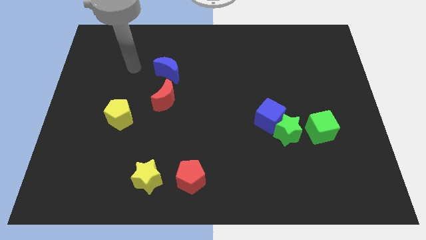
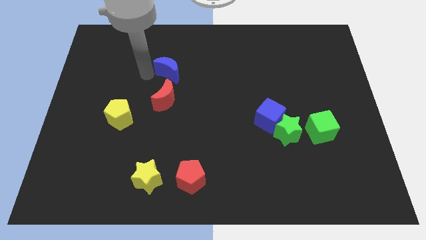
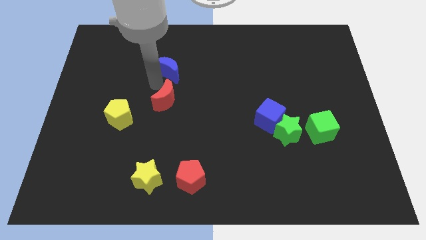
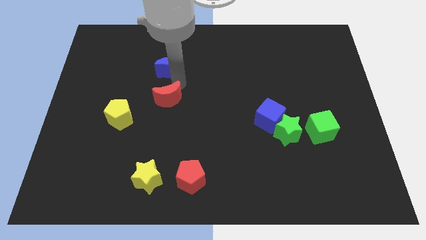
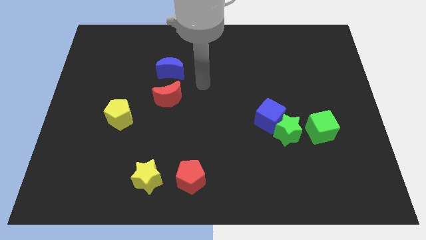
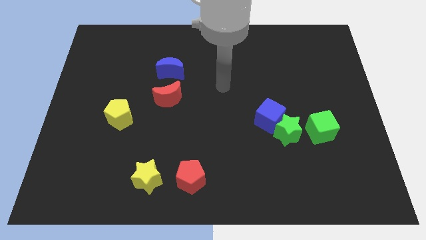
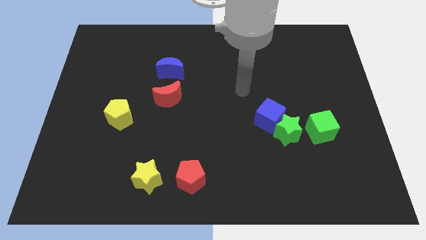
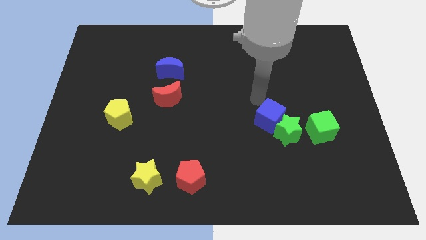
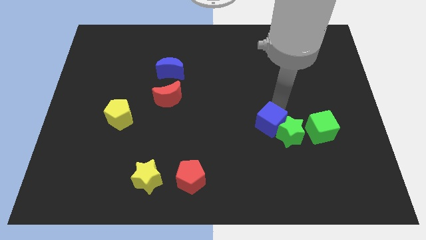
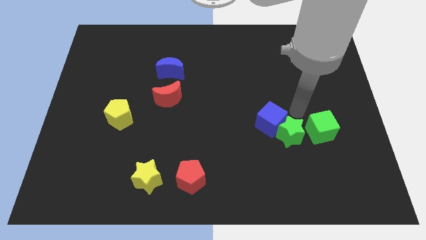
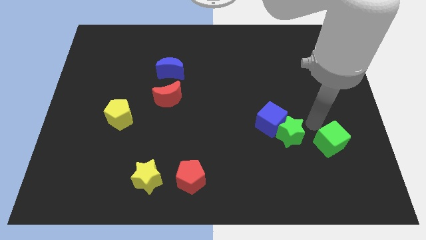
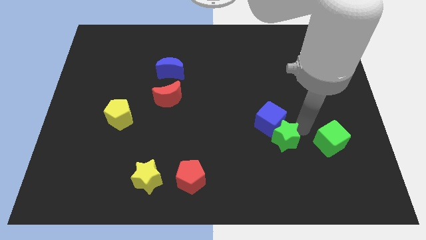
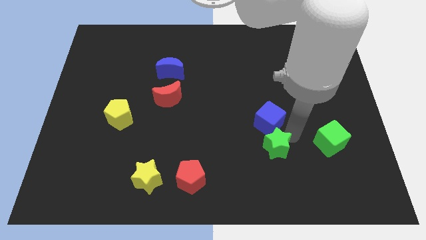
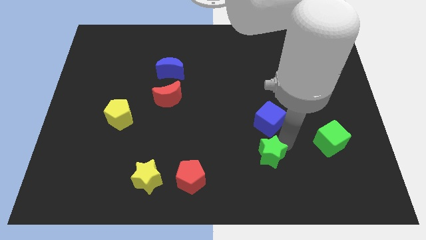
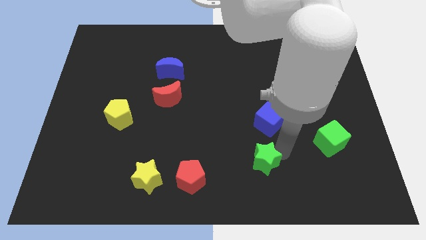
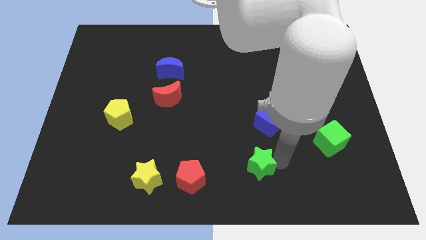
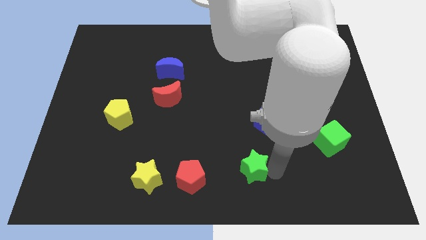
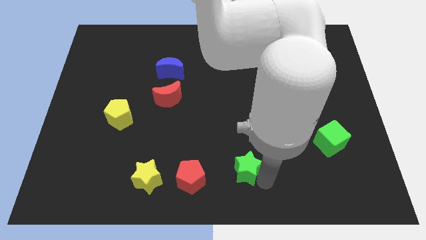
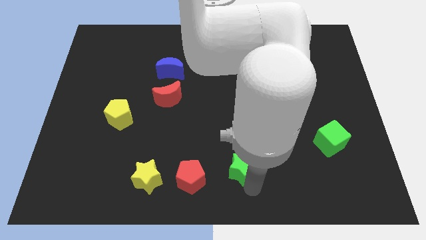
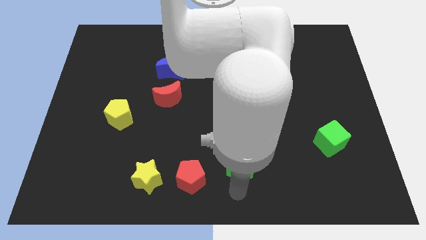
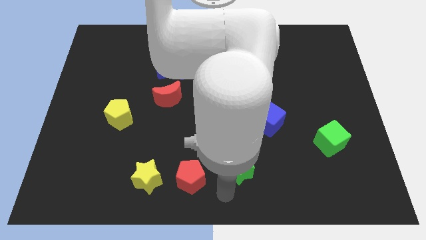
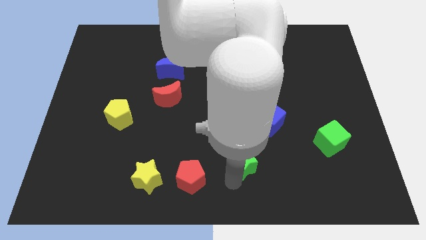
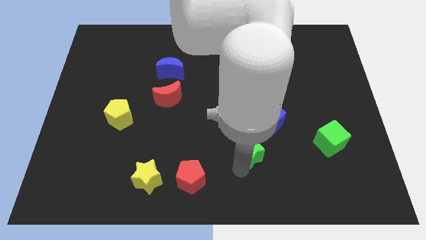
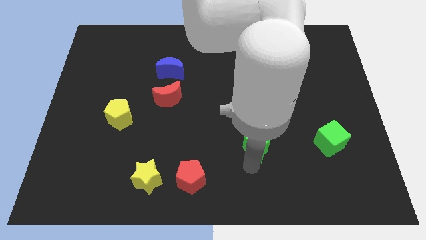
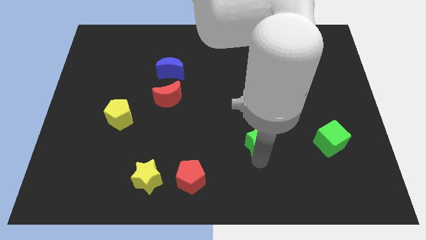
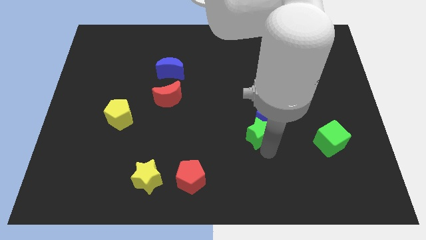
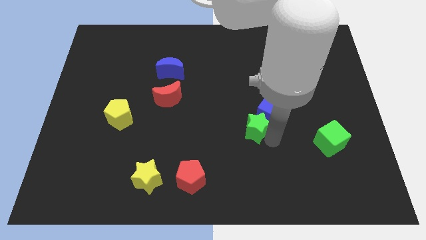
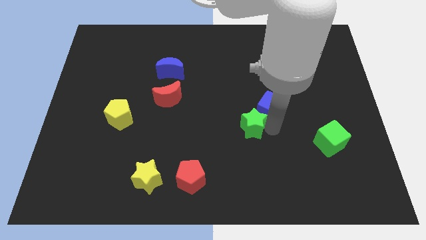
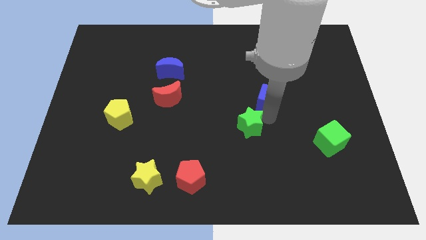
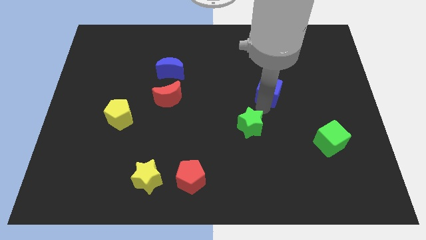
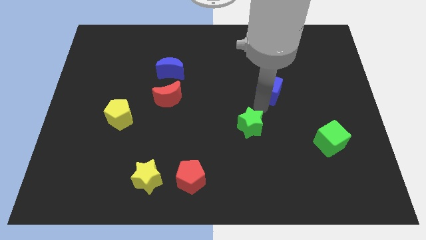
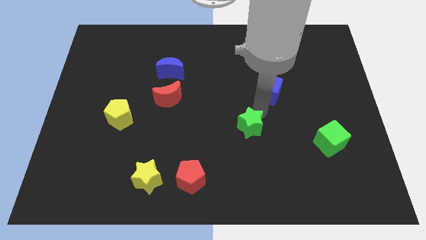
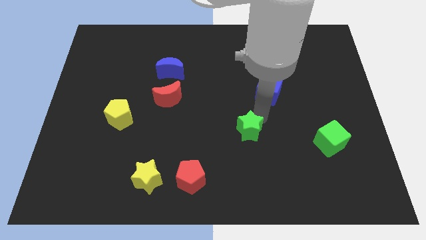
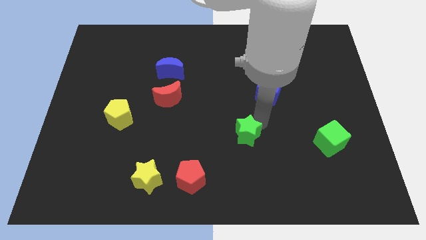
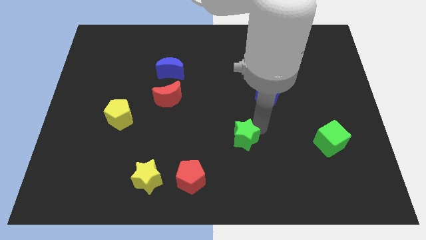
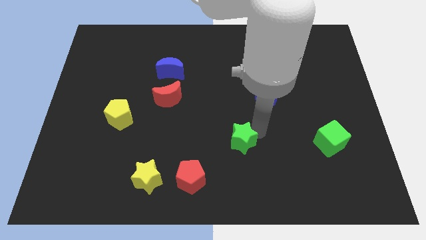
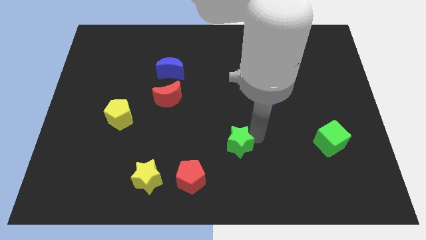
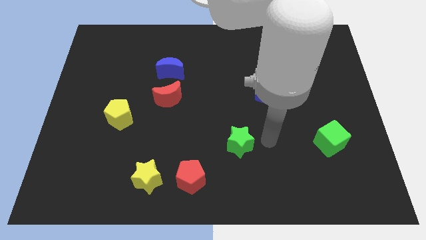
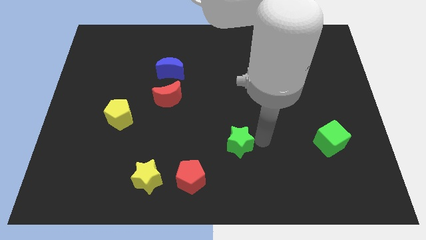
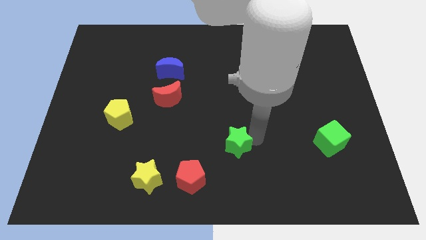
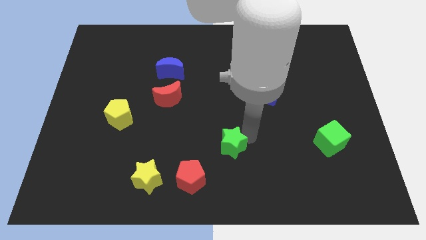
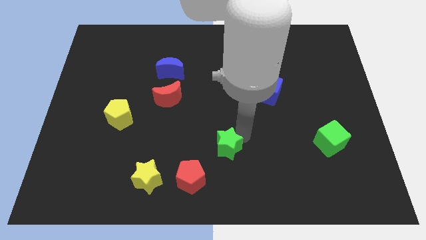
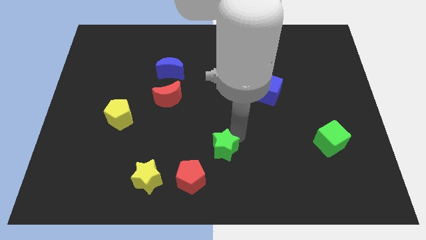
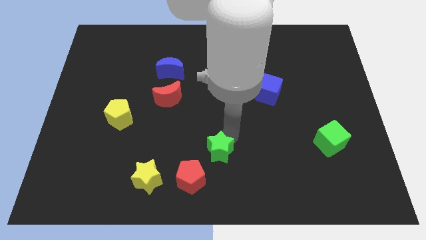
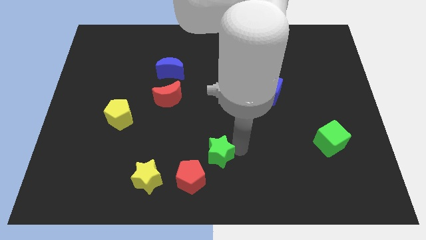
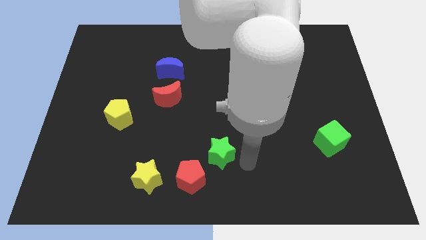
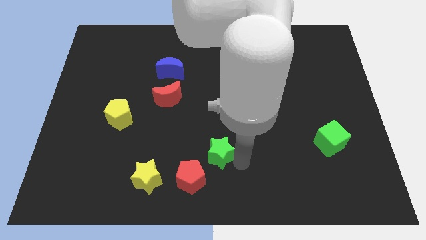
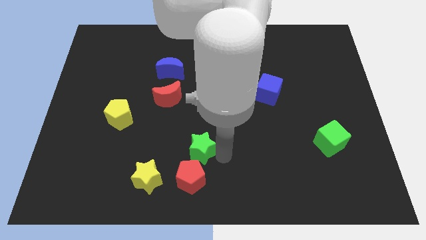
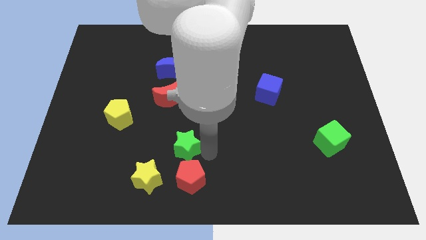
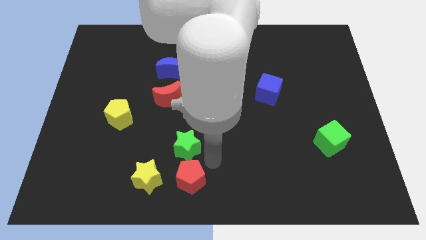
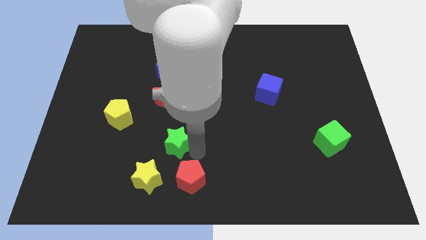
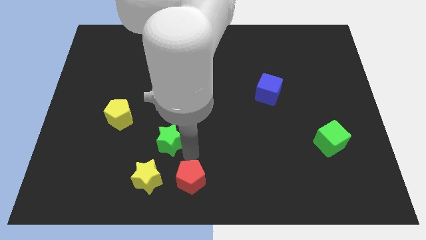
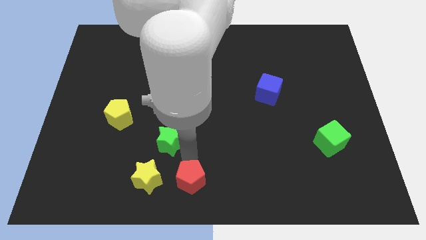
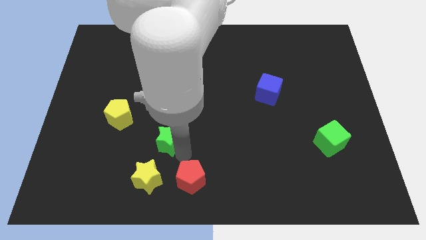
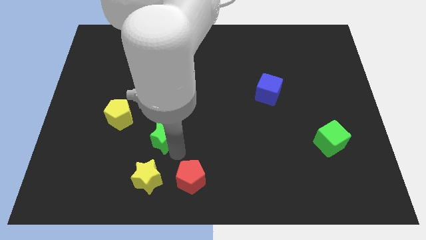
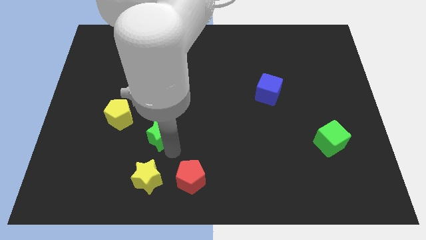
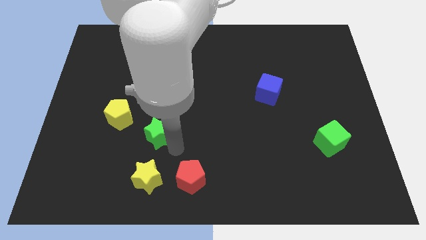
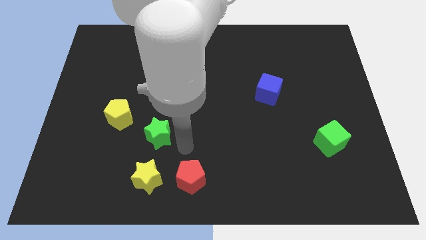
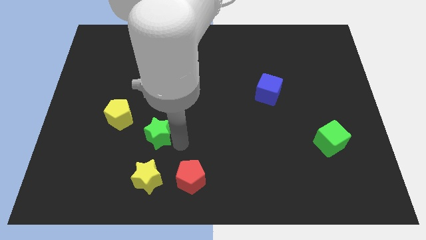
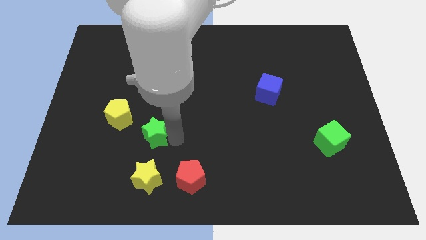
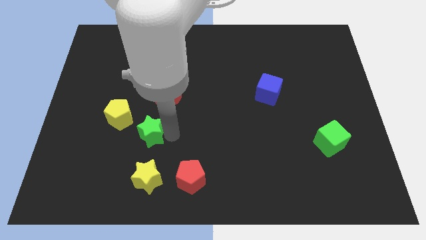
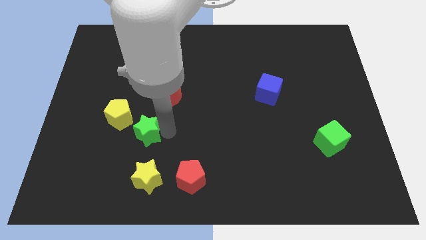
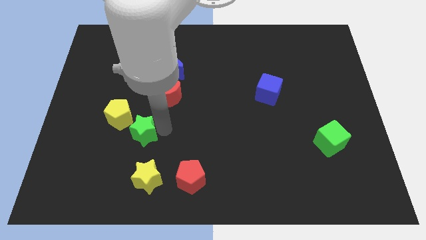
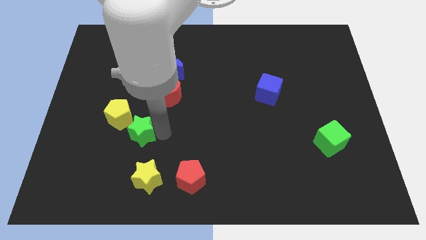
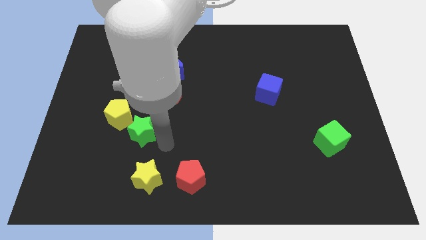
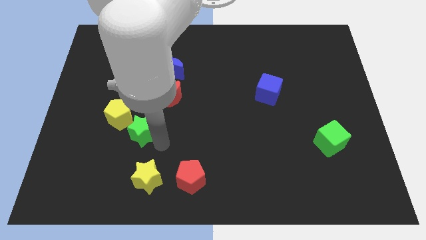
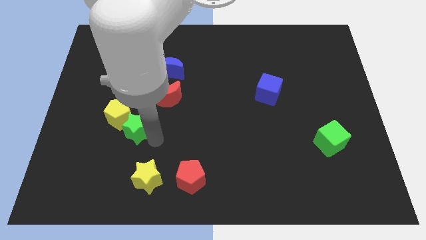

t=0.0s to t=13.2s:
slide the green star next to the yellow pentagon
